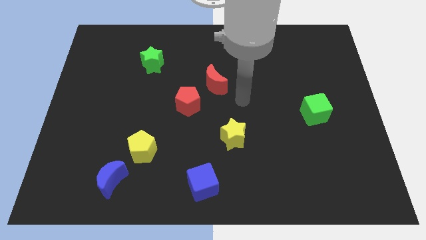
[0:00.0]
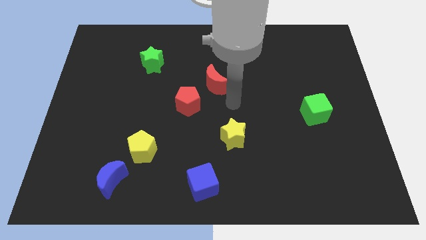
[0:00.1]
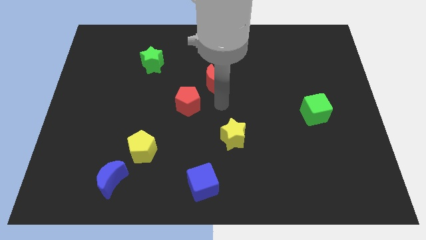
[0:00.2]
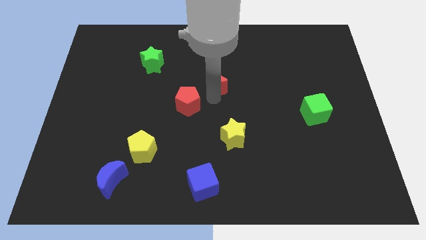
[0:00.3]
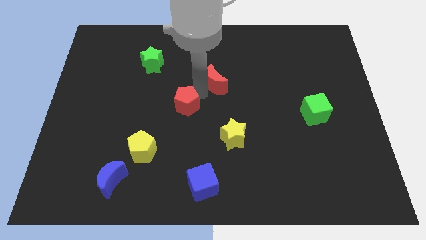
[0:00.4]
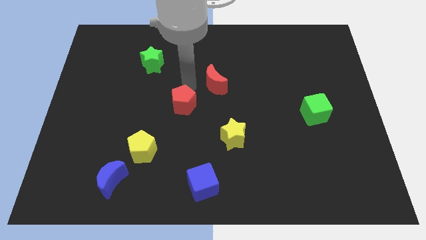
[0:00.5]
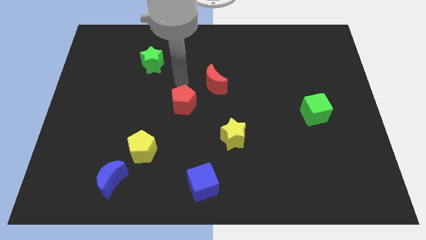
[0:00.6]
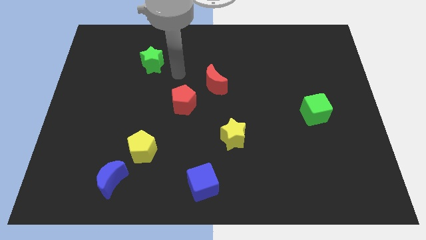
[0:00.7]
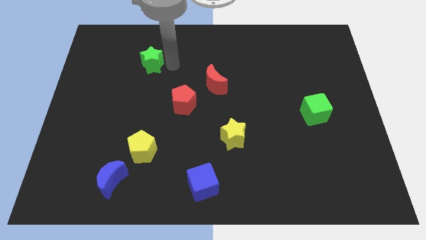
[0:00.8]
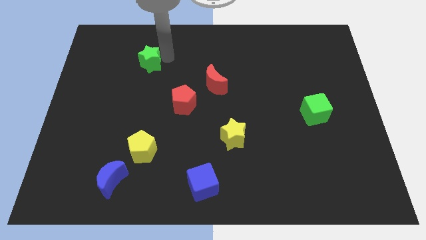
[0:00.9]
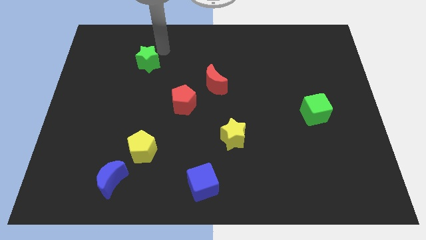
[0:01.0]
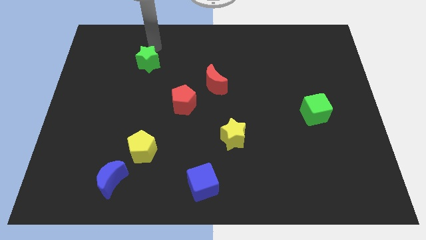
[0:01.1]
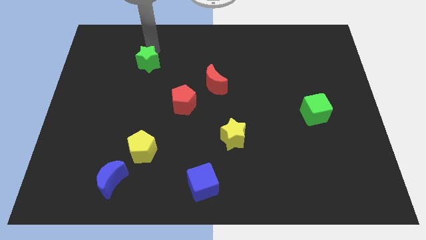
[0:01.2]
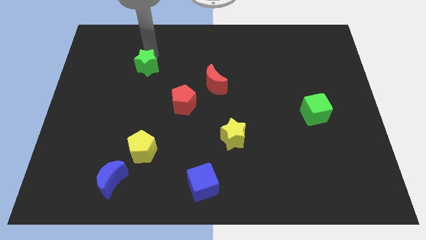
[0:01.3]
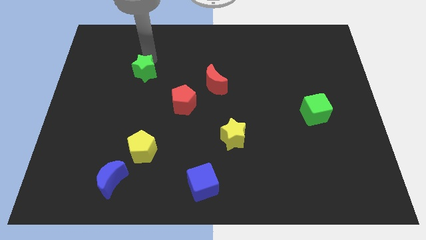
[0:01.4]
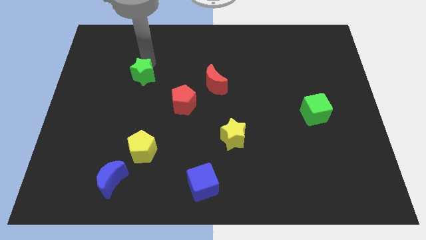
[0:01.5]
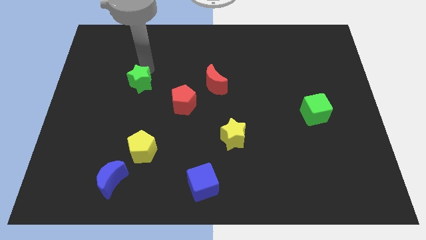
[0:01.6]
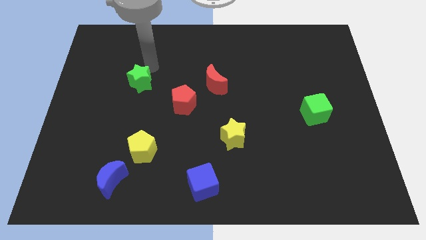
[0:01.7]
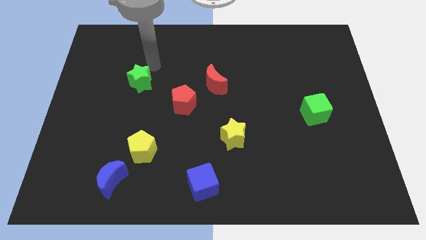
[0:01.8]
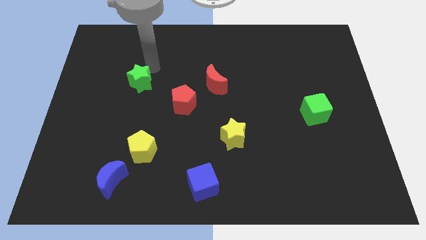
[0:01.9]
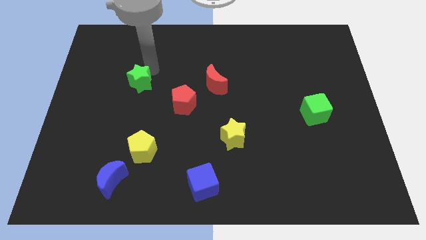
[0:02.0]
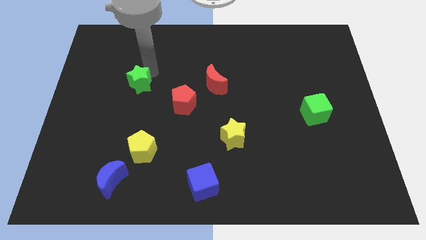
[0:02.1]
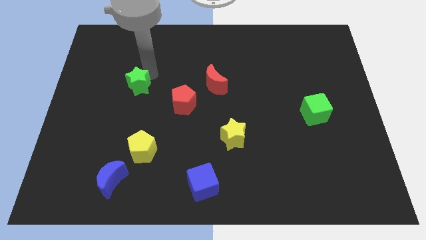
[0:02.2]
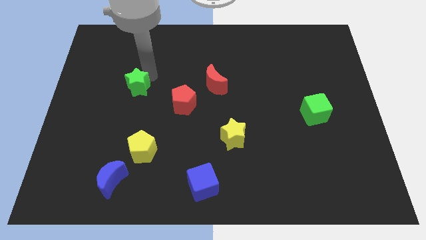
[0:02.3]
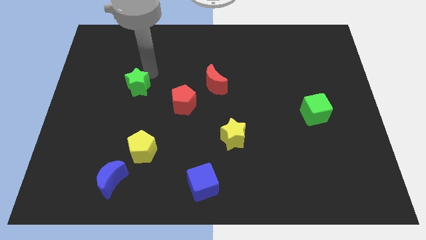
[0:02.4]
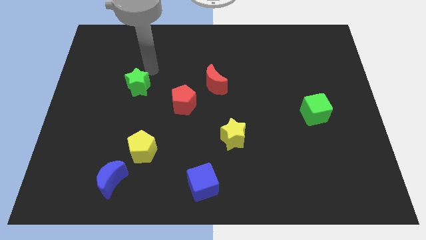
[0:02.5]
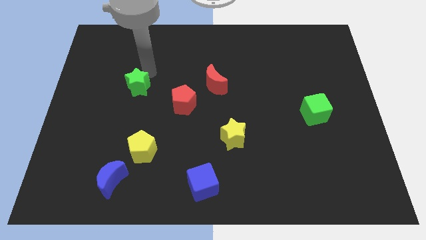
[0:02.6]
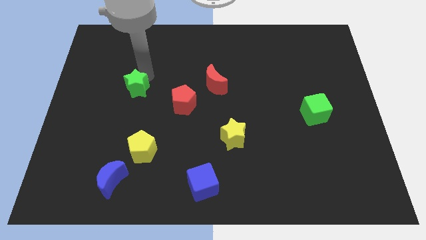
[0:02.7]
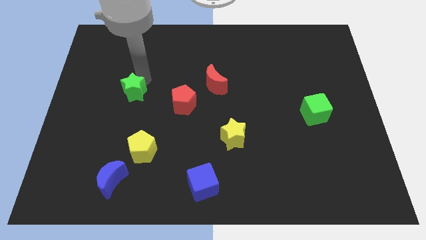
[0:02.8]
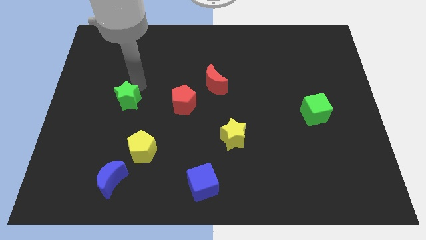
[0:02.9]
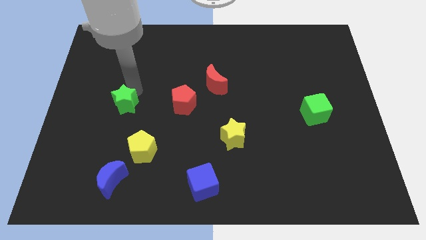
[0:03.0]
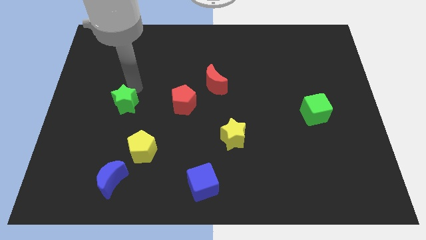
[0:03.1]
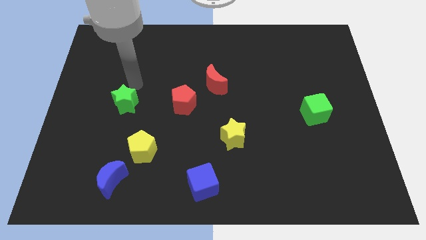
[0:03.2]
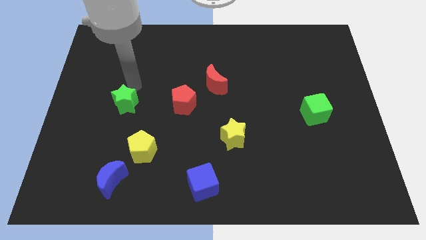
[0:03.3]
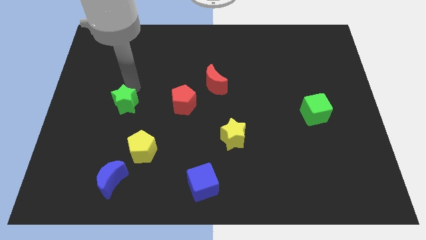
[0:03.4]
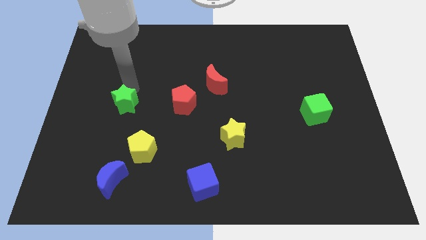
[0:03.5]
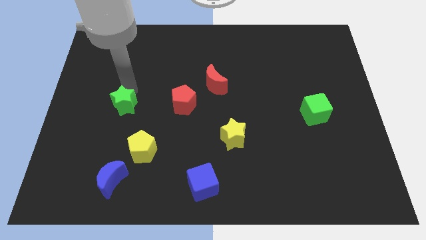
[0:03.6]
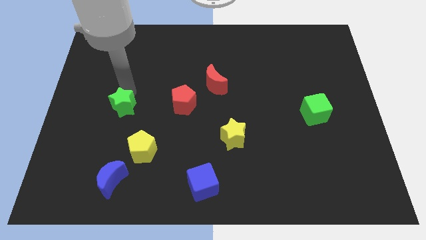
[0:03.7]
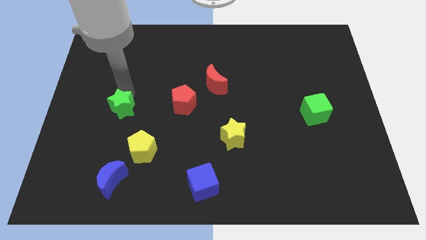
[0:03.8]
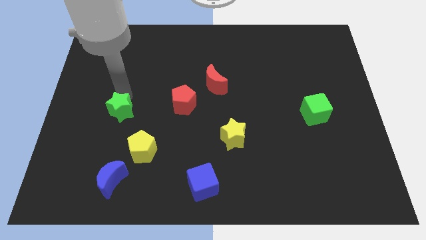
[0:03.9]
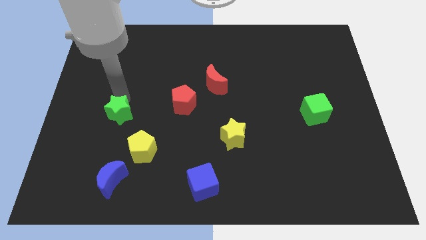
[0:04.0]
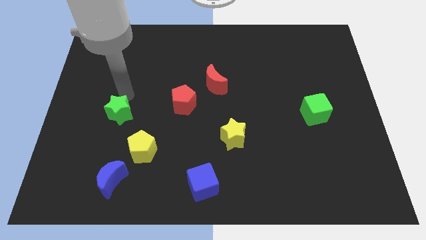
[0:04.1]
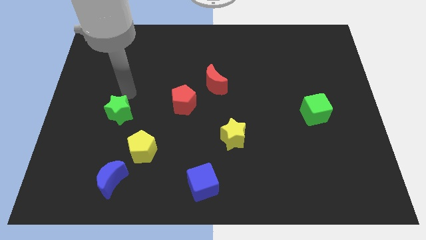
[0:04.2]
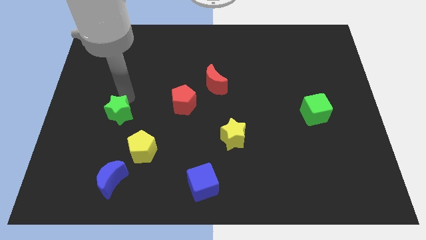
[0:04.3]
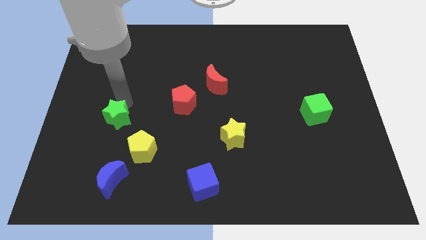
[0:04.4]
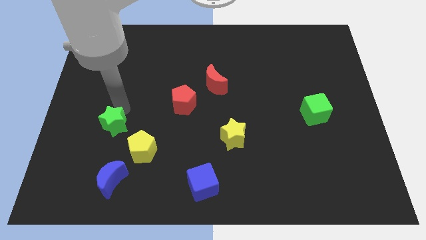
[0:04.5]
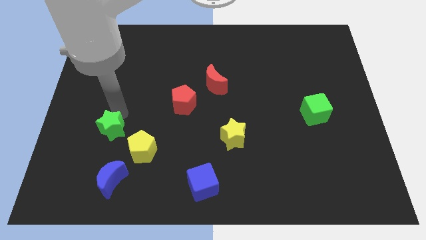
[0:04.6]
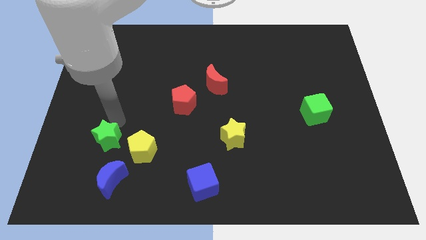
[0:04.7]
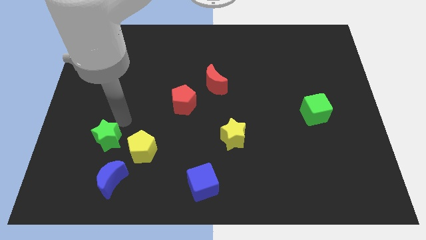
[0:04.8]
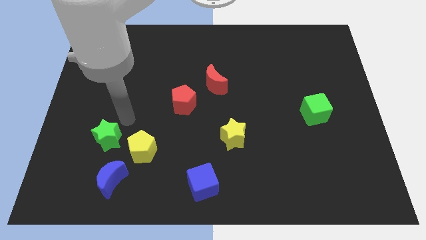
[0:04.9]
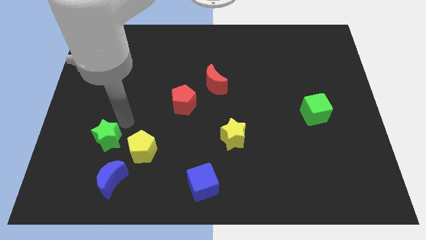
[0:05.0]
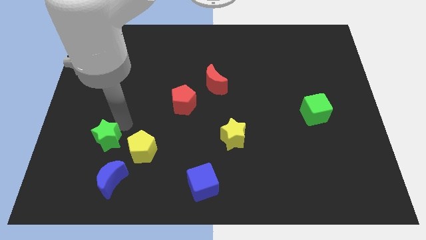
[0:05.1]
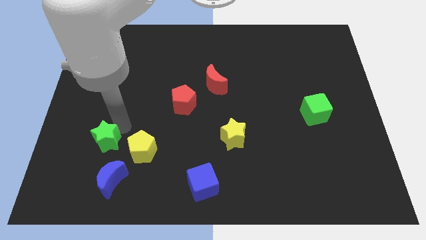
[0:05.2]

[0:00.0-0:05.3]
slide the green star diagonally up and to the left of the blue moon

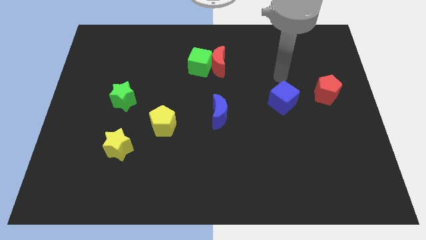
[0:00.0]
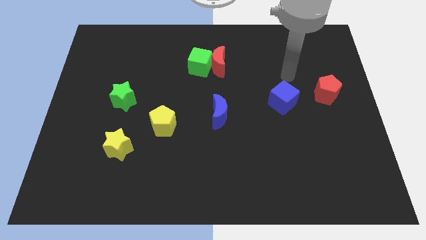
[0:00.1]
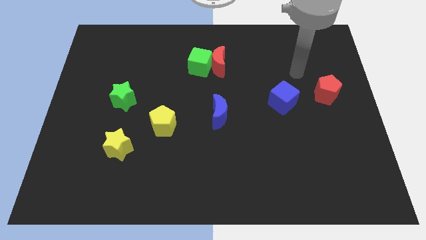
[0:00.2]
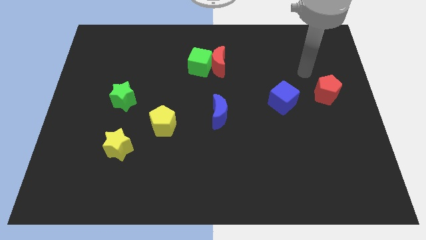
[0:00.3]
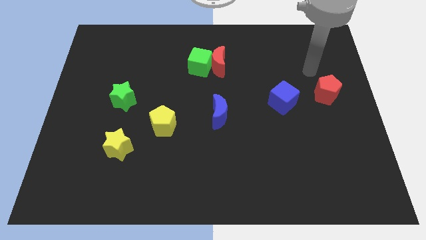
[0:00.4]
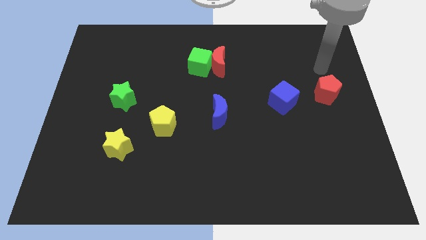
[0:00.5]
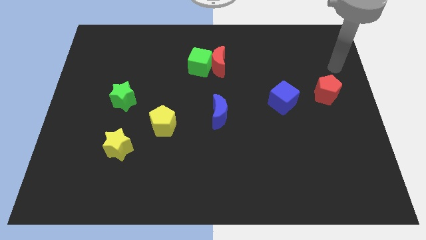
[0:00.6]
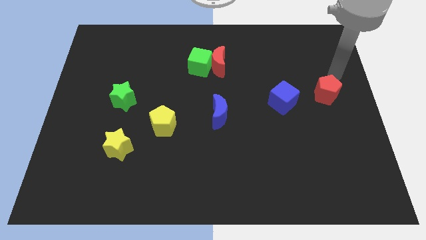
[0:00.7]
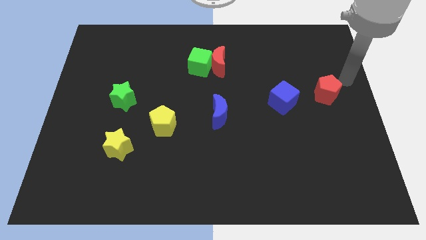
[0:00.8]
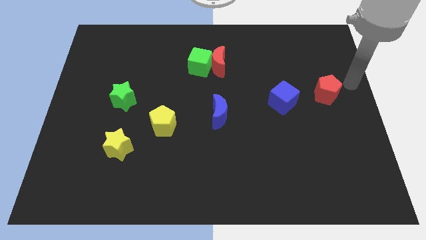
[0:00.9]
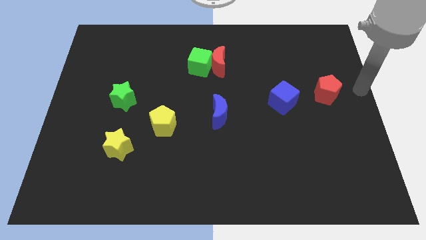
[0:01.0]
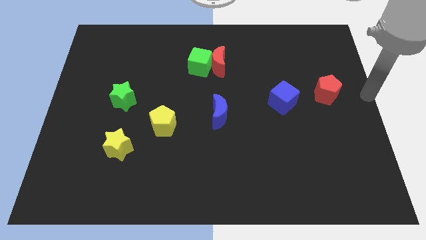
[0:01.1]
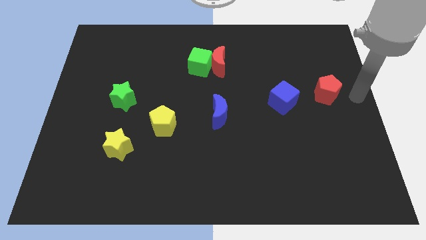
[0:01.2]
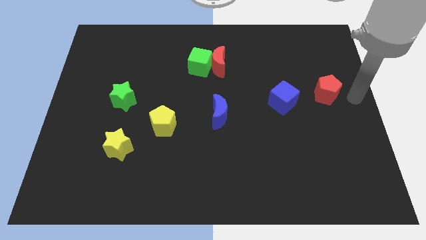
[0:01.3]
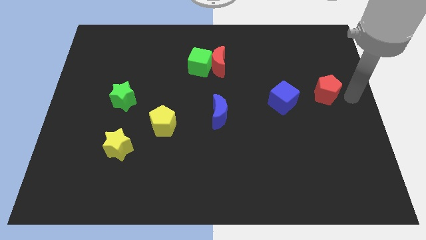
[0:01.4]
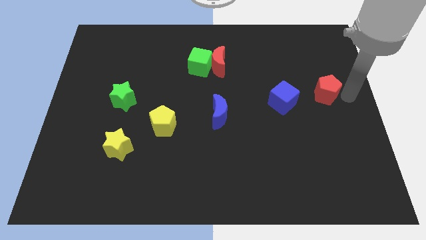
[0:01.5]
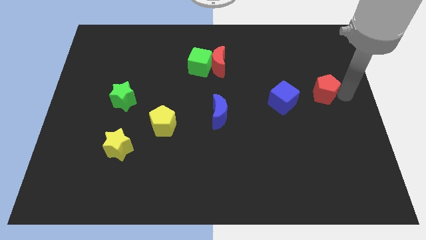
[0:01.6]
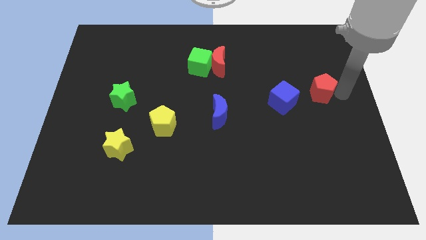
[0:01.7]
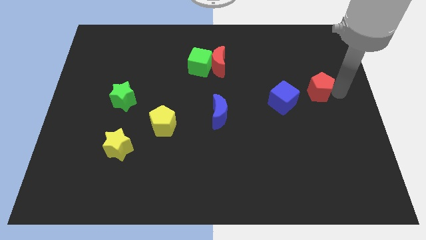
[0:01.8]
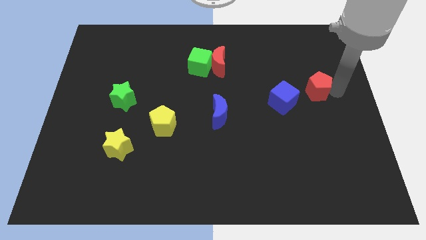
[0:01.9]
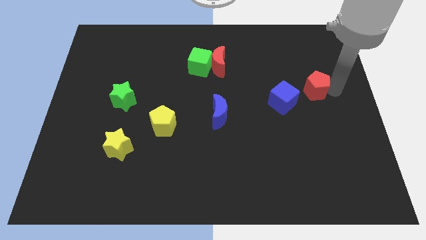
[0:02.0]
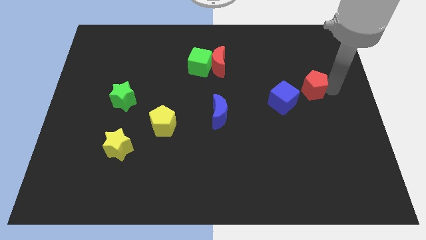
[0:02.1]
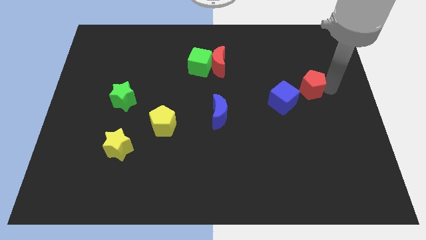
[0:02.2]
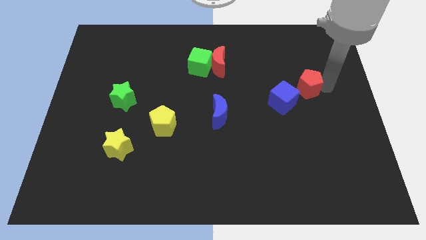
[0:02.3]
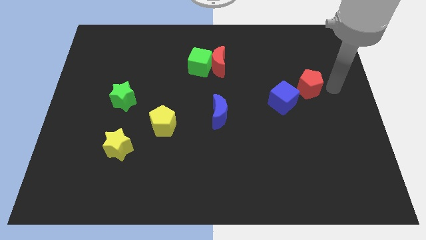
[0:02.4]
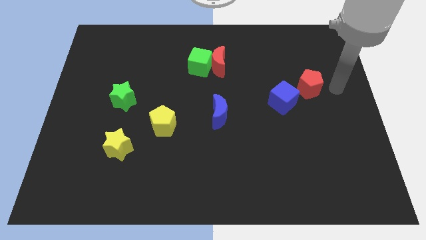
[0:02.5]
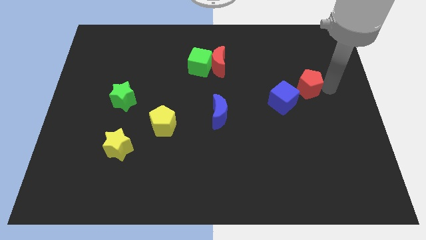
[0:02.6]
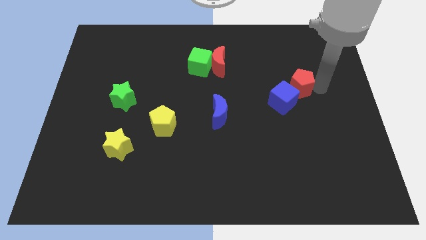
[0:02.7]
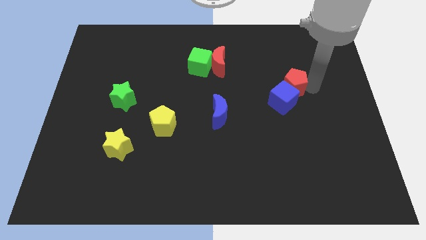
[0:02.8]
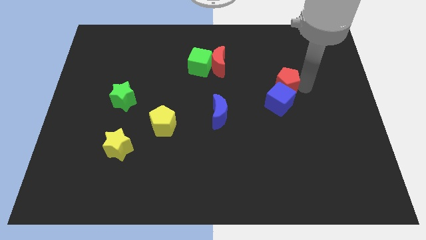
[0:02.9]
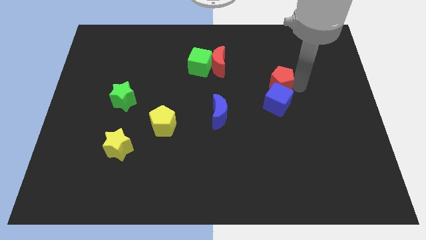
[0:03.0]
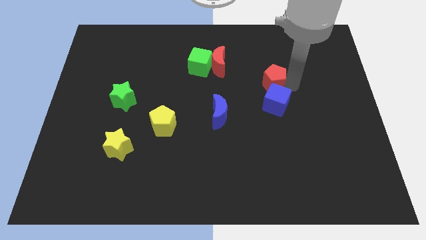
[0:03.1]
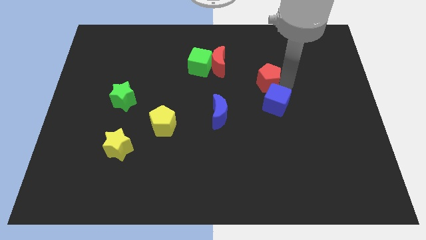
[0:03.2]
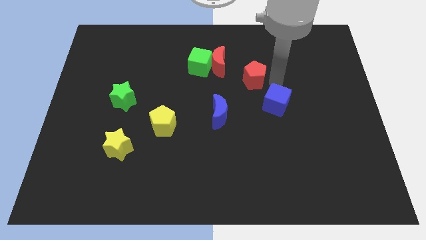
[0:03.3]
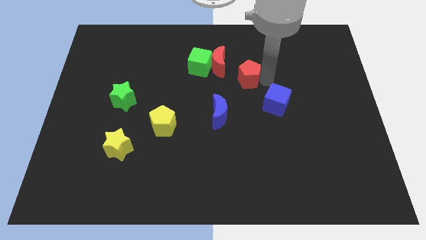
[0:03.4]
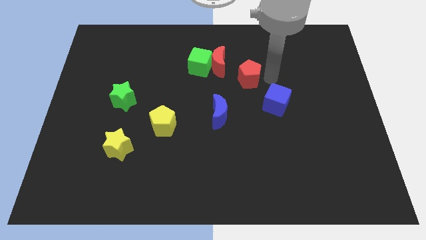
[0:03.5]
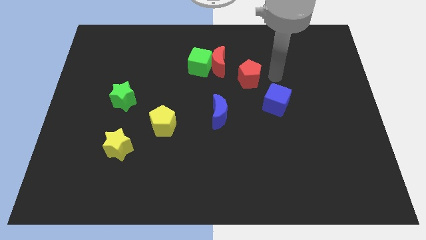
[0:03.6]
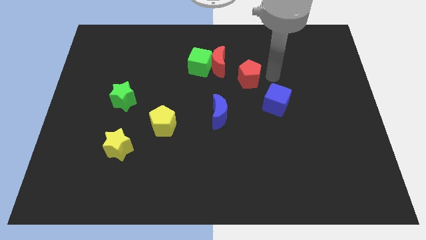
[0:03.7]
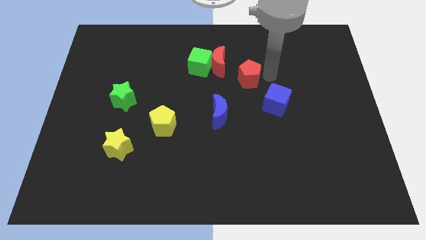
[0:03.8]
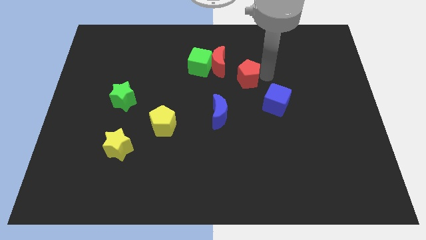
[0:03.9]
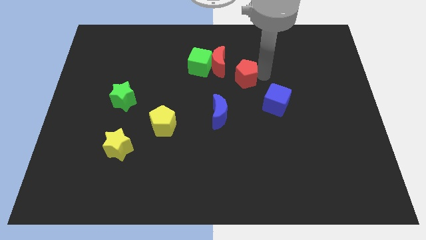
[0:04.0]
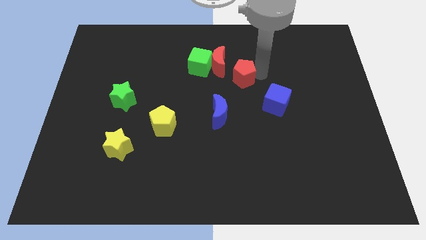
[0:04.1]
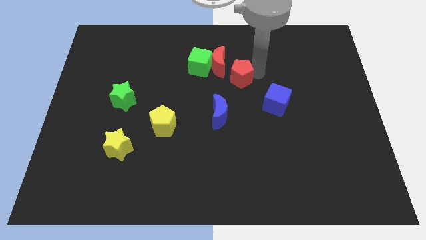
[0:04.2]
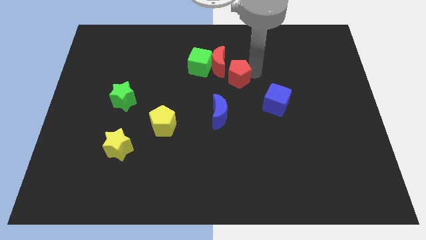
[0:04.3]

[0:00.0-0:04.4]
put the red pentagon diagonally down and to the right of the green cube
